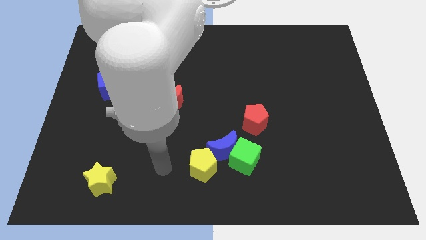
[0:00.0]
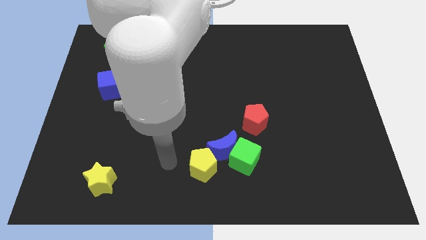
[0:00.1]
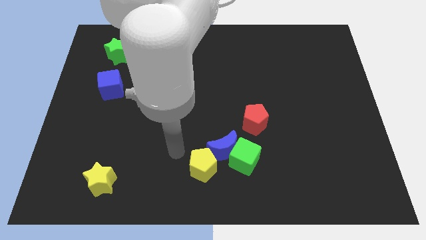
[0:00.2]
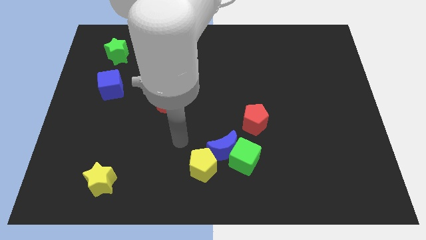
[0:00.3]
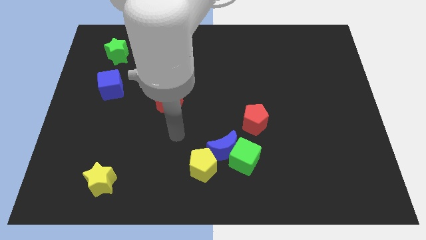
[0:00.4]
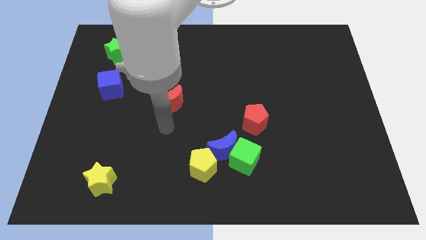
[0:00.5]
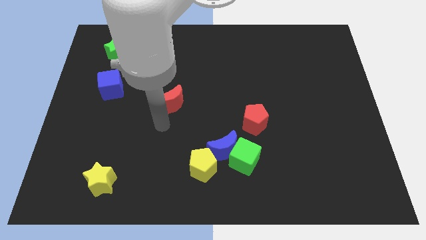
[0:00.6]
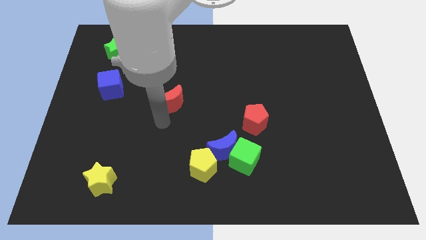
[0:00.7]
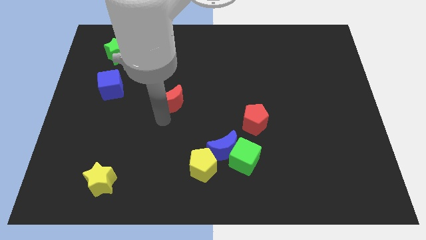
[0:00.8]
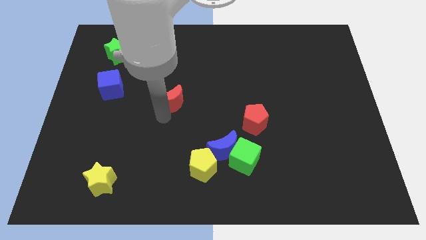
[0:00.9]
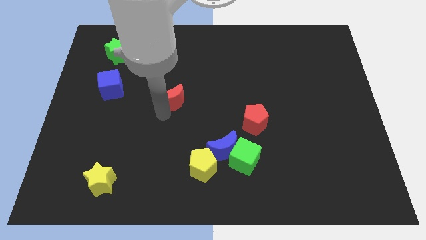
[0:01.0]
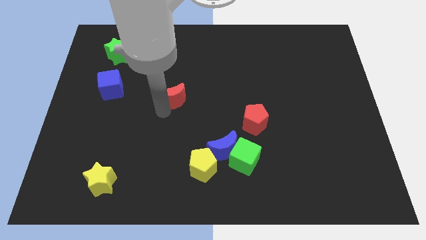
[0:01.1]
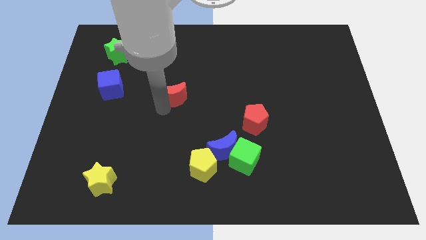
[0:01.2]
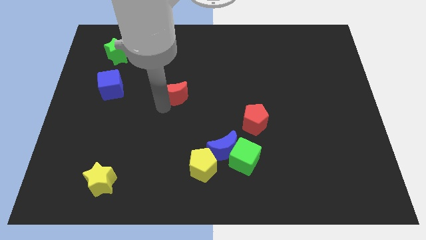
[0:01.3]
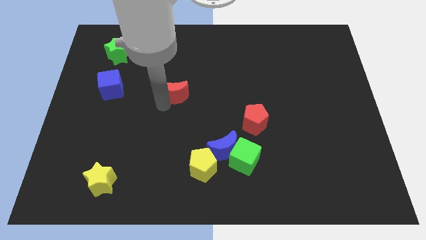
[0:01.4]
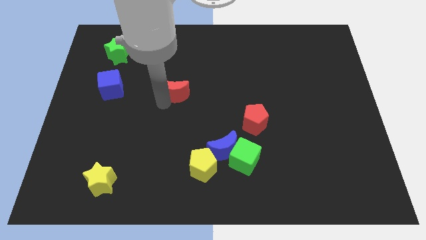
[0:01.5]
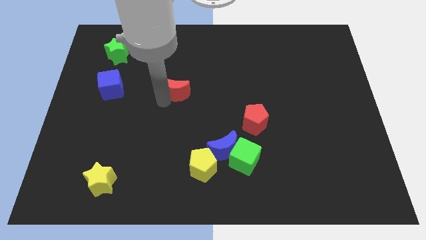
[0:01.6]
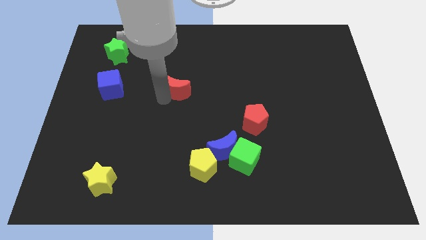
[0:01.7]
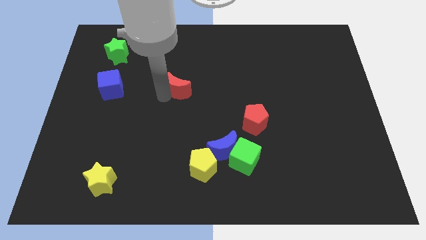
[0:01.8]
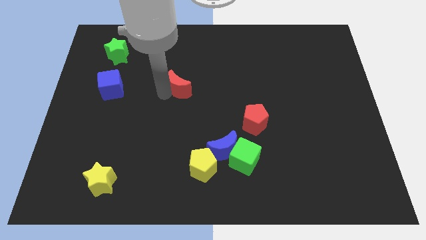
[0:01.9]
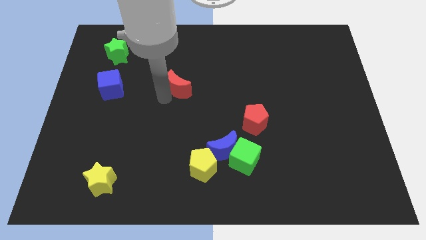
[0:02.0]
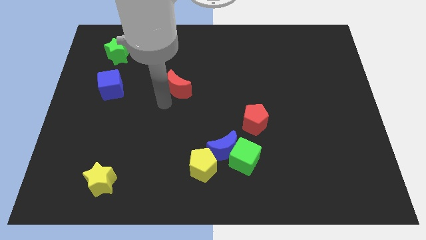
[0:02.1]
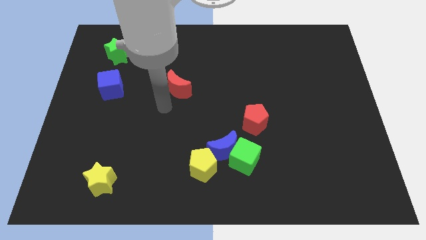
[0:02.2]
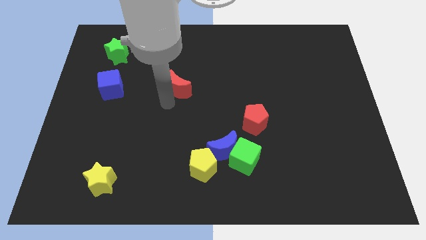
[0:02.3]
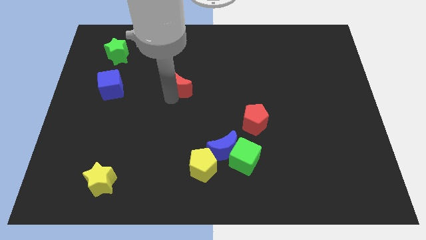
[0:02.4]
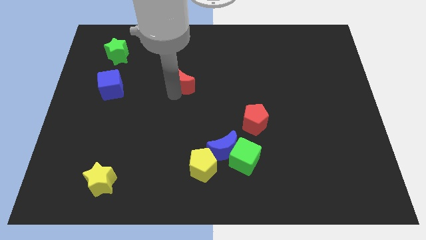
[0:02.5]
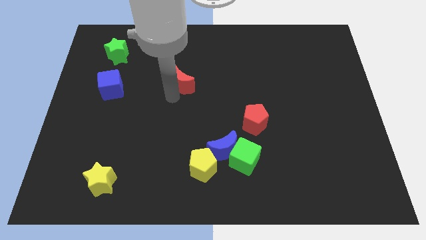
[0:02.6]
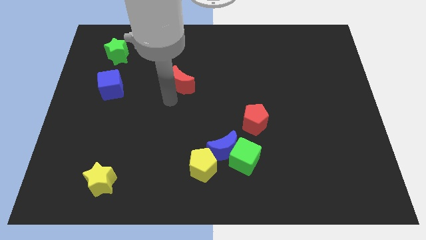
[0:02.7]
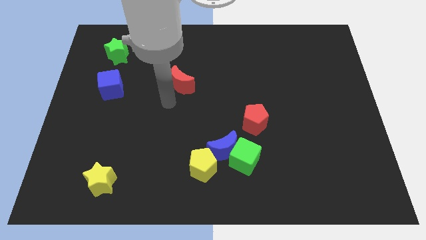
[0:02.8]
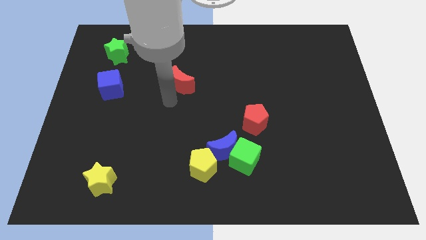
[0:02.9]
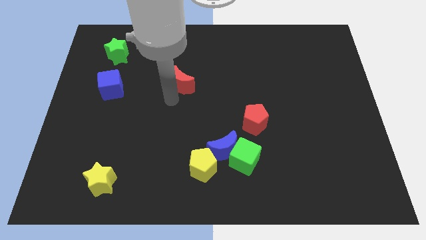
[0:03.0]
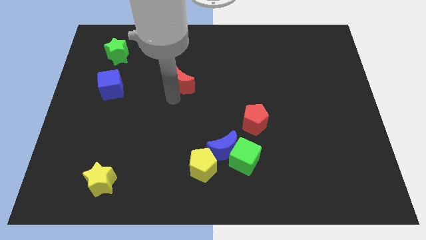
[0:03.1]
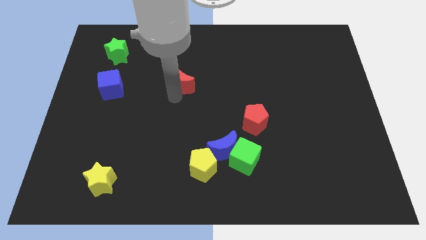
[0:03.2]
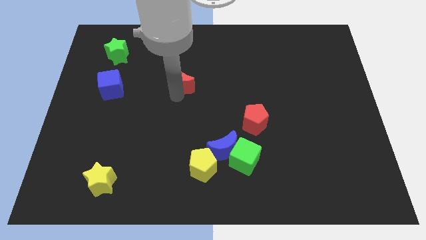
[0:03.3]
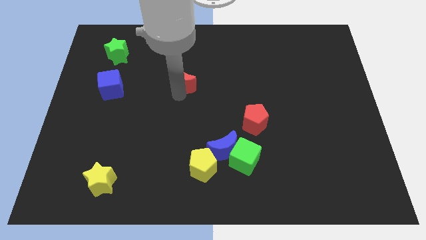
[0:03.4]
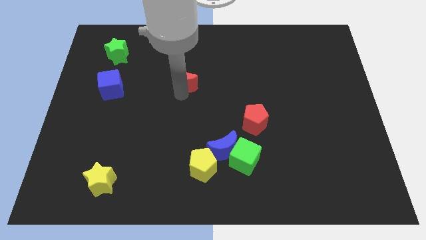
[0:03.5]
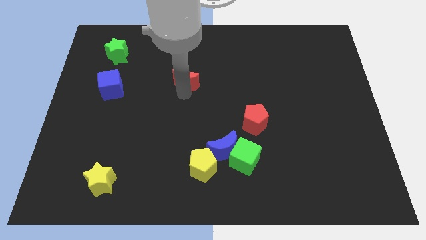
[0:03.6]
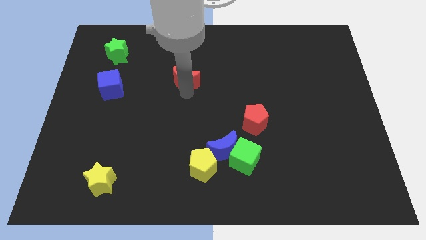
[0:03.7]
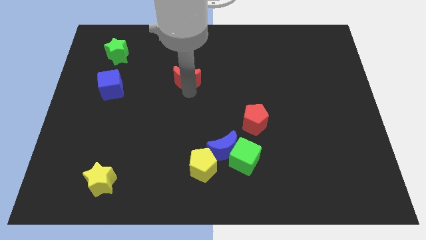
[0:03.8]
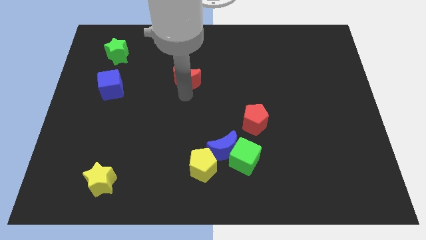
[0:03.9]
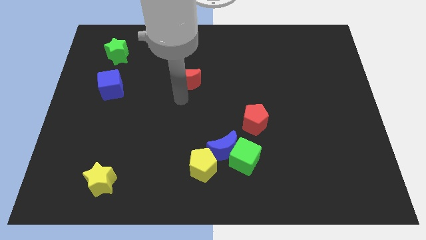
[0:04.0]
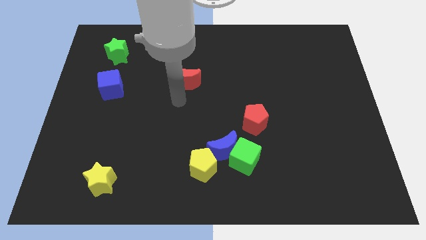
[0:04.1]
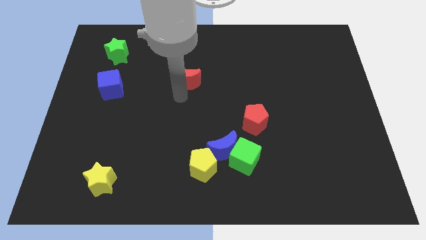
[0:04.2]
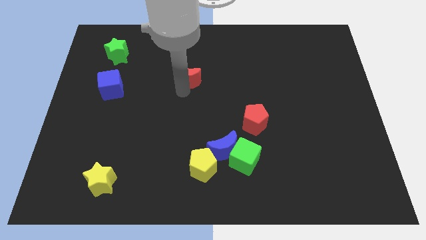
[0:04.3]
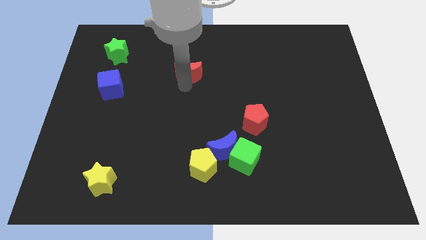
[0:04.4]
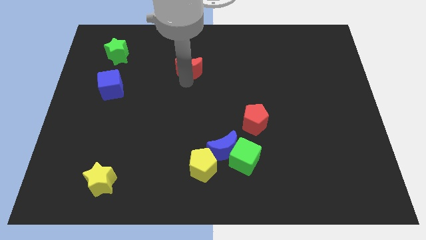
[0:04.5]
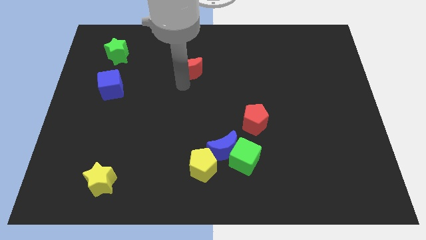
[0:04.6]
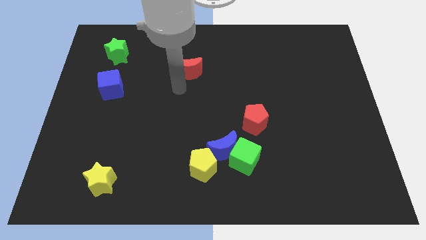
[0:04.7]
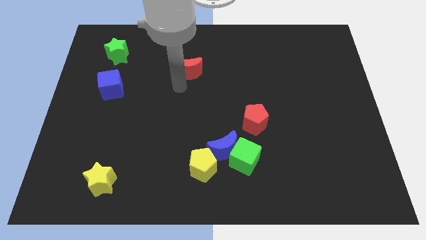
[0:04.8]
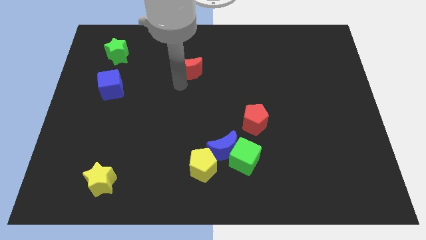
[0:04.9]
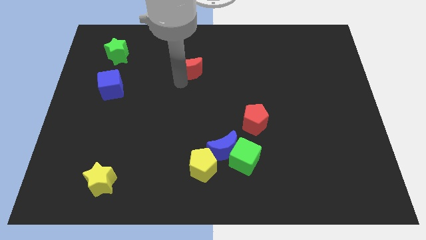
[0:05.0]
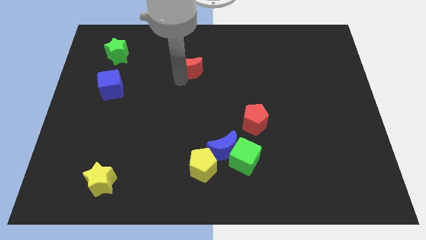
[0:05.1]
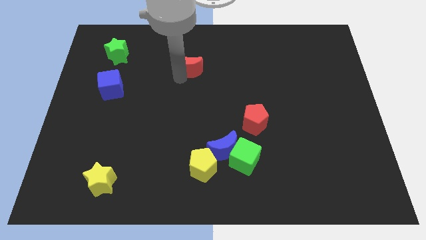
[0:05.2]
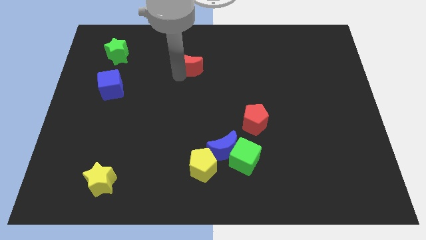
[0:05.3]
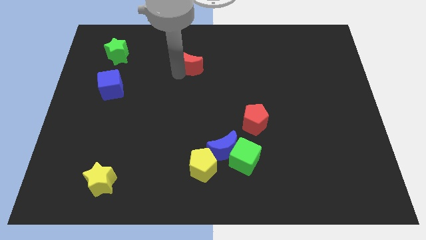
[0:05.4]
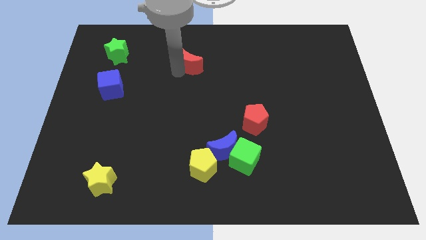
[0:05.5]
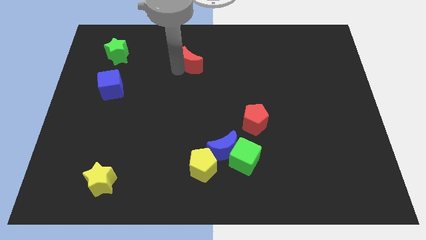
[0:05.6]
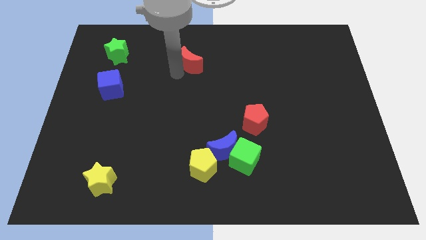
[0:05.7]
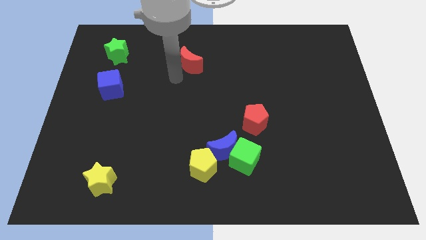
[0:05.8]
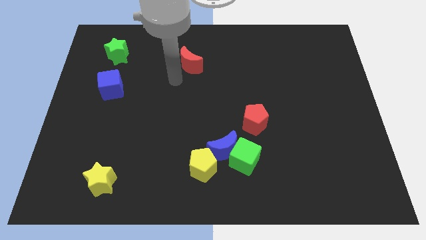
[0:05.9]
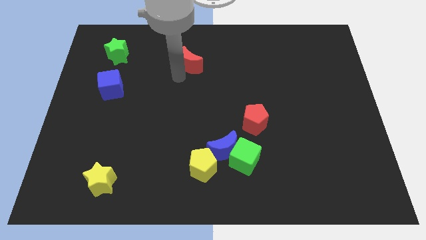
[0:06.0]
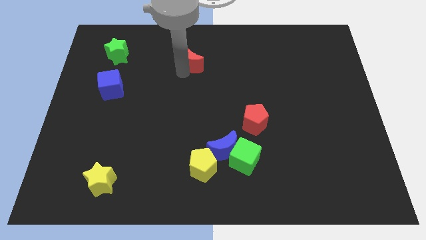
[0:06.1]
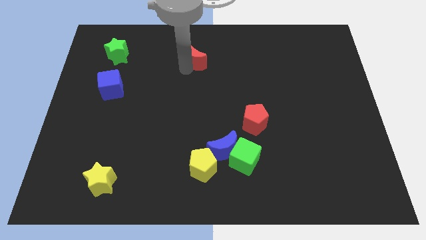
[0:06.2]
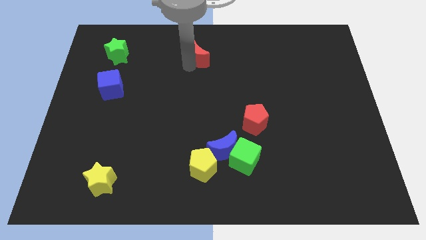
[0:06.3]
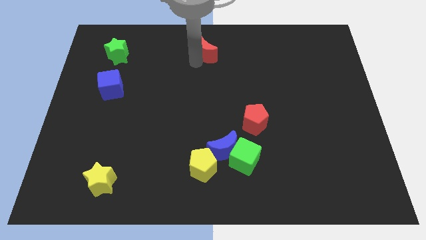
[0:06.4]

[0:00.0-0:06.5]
slide the red moon to the top side
